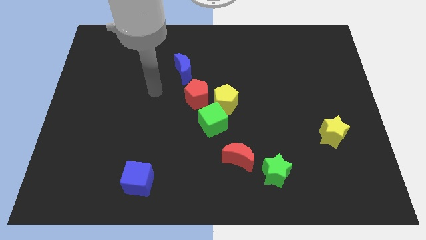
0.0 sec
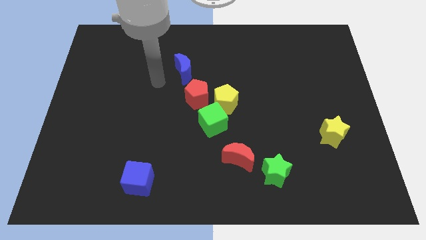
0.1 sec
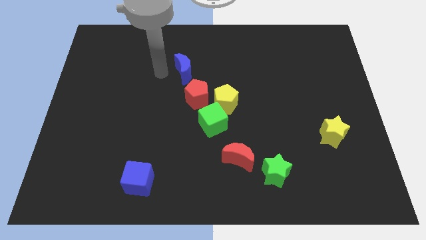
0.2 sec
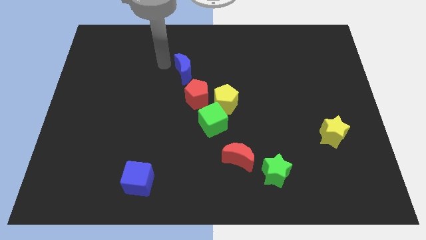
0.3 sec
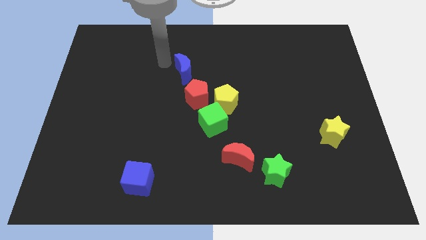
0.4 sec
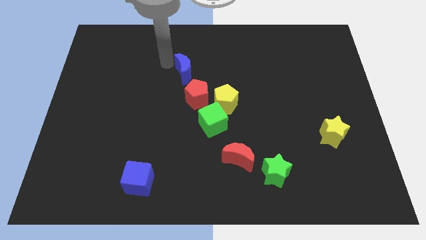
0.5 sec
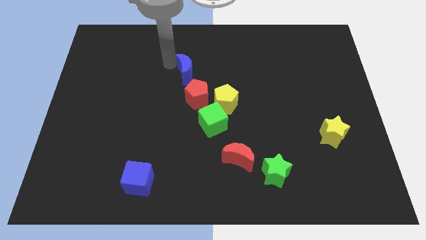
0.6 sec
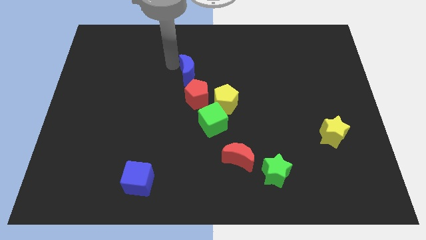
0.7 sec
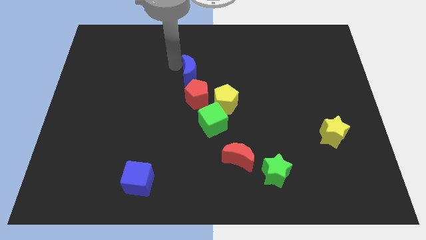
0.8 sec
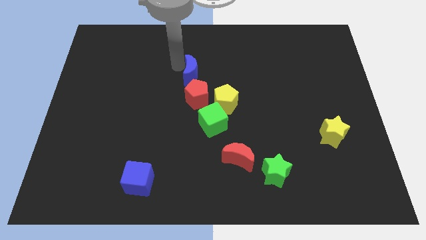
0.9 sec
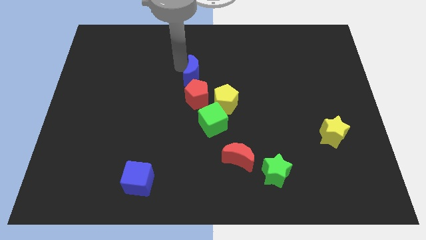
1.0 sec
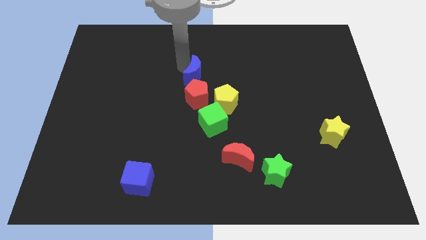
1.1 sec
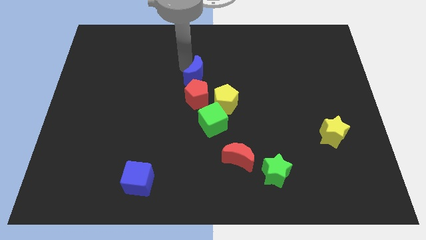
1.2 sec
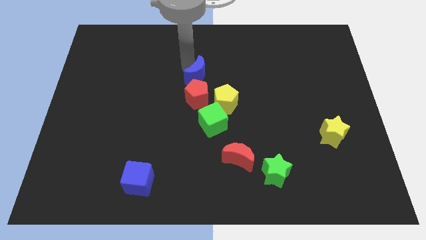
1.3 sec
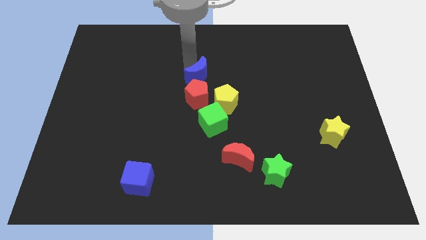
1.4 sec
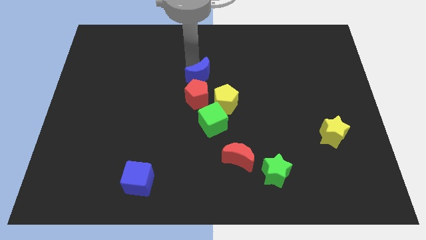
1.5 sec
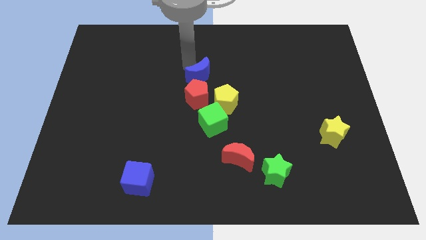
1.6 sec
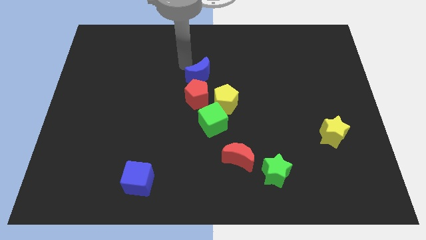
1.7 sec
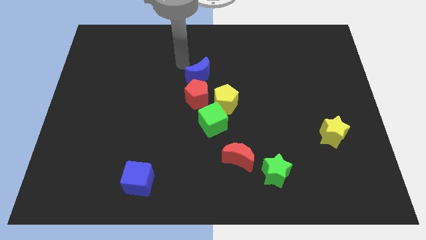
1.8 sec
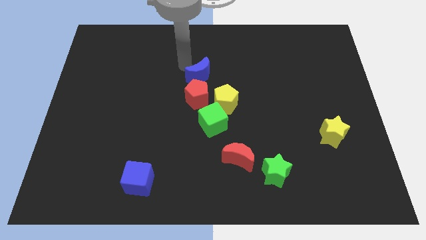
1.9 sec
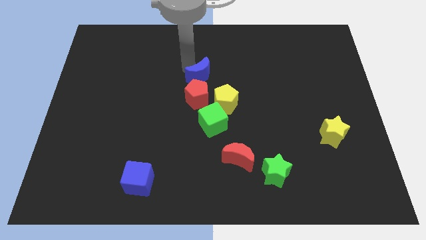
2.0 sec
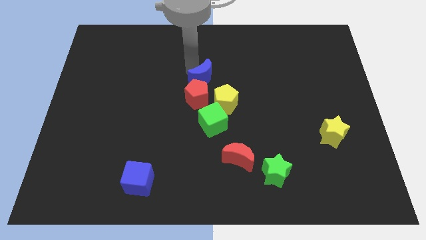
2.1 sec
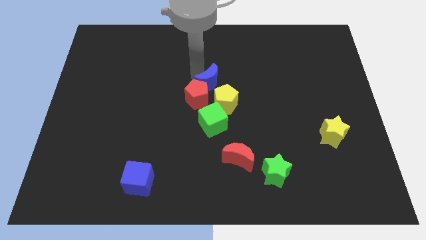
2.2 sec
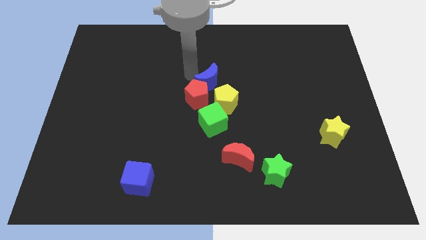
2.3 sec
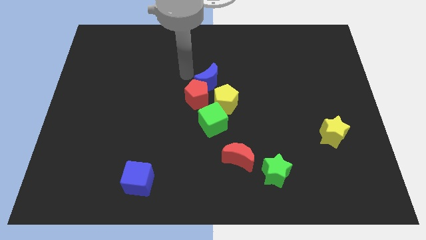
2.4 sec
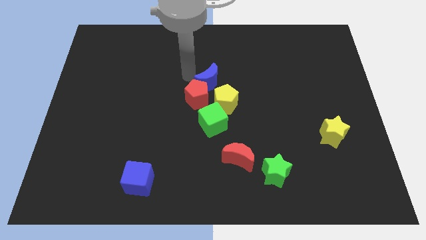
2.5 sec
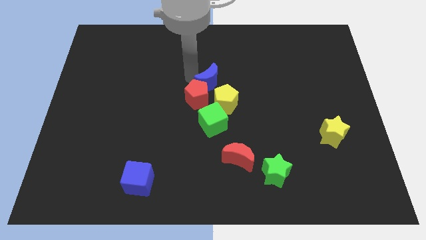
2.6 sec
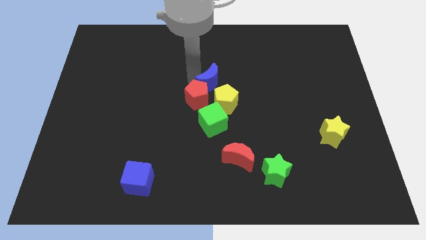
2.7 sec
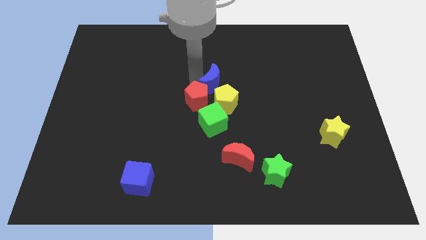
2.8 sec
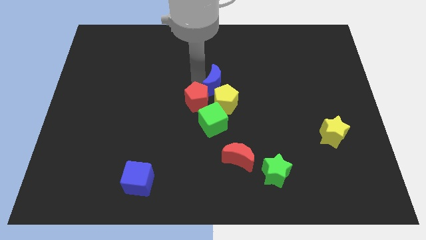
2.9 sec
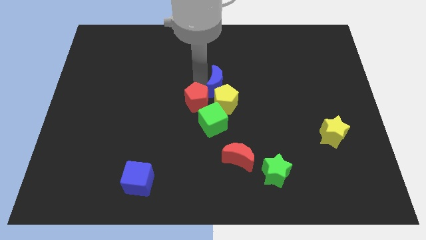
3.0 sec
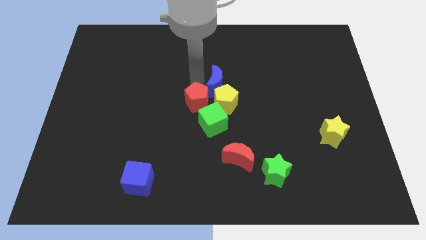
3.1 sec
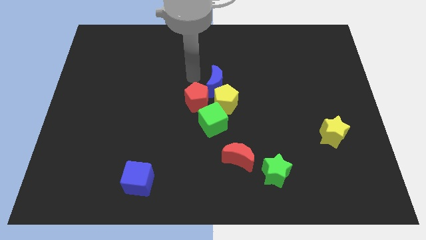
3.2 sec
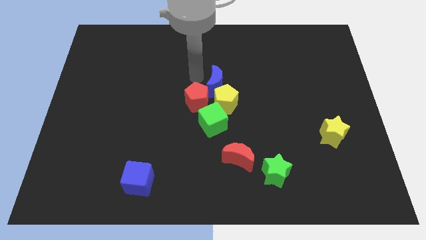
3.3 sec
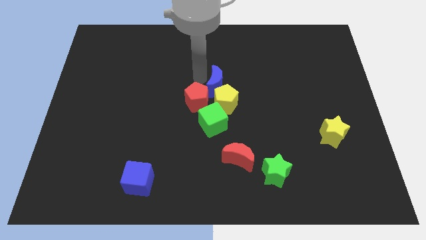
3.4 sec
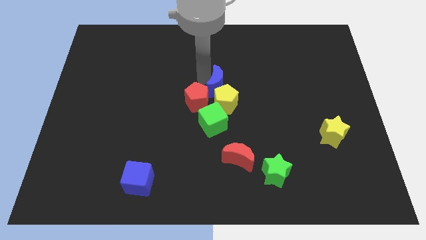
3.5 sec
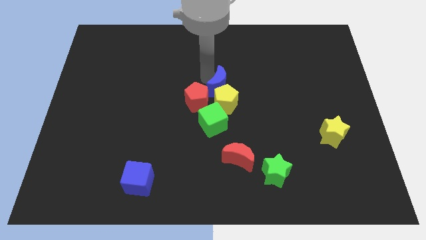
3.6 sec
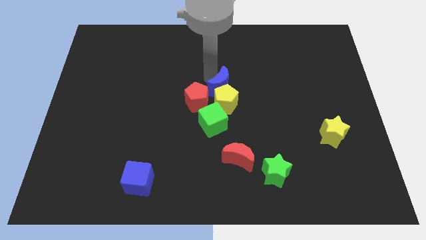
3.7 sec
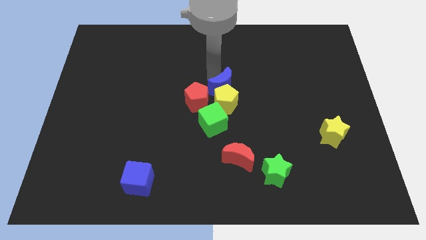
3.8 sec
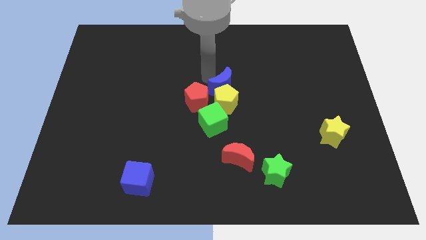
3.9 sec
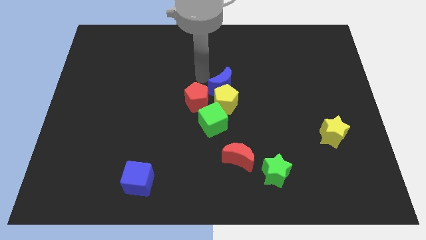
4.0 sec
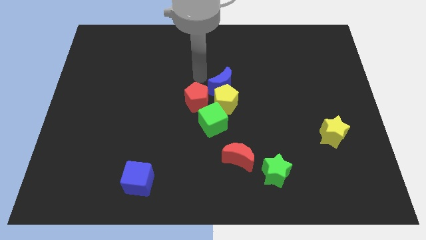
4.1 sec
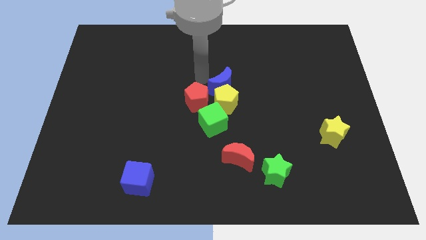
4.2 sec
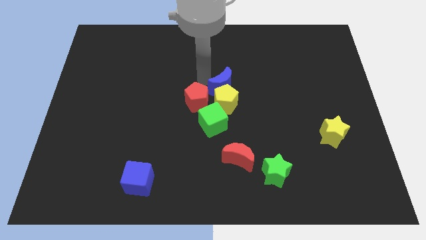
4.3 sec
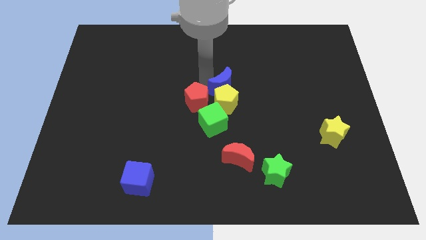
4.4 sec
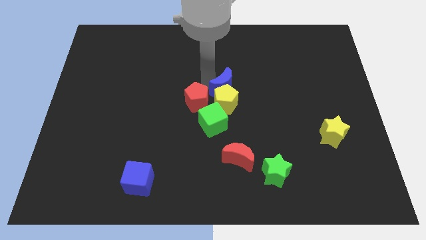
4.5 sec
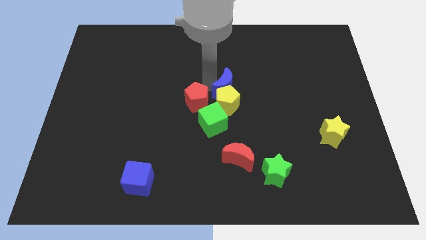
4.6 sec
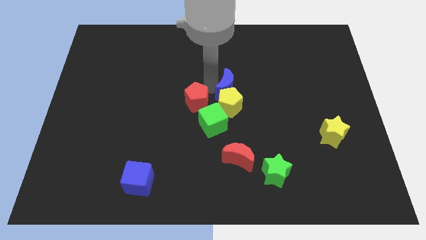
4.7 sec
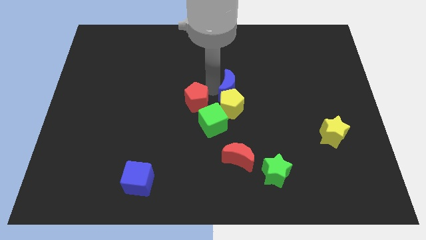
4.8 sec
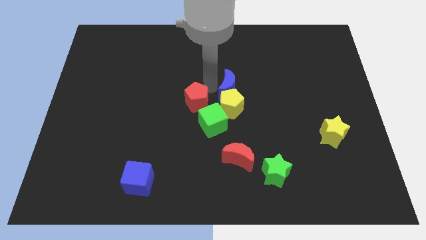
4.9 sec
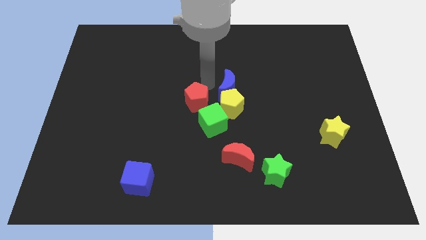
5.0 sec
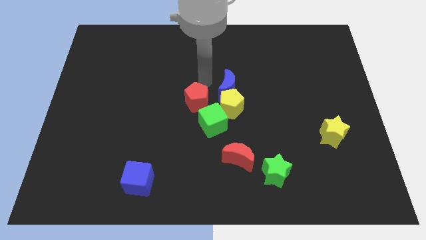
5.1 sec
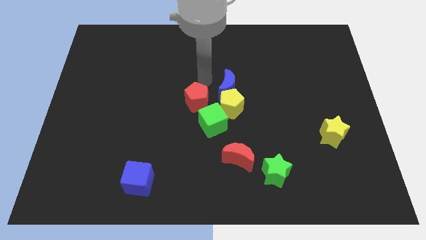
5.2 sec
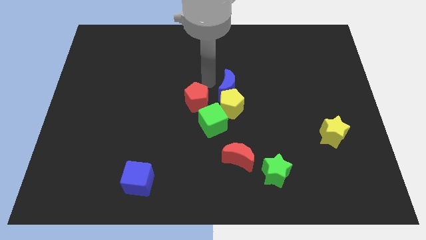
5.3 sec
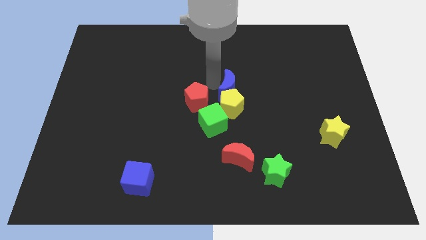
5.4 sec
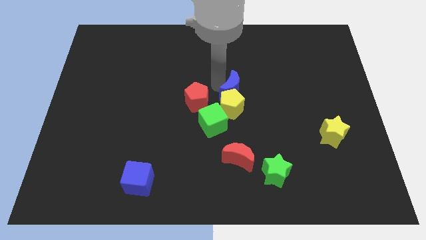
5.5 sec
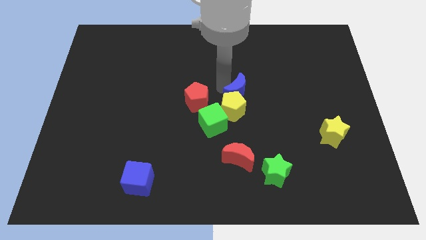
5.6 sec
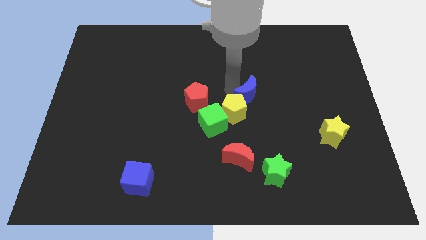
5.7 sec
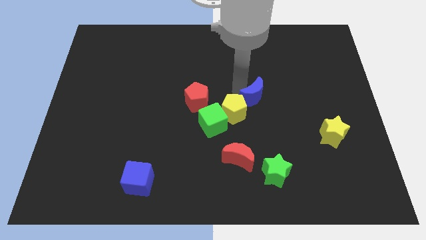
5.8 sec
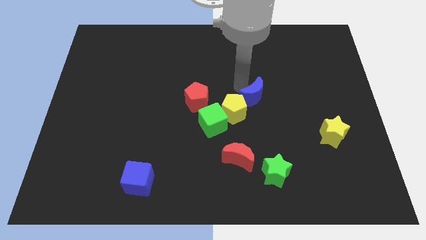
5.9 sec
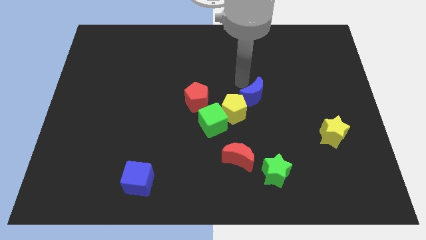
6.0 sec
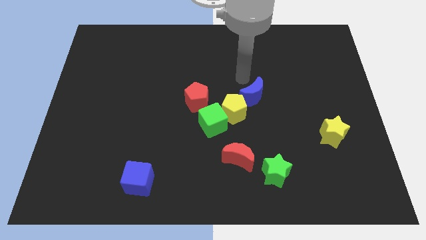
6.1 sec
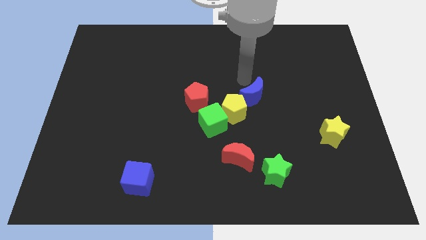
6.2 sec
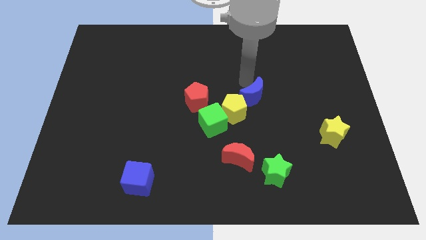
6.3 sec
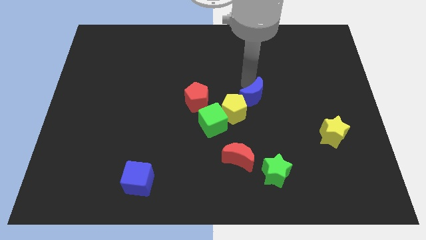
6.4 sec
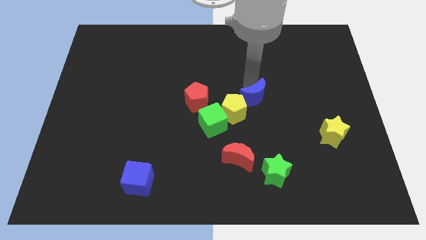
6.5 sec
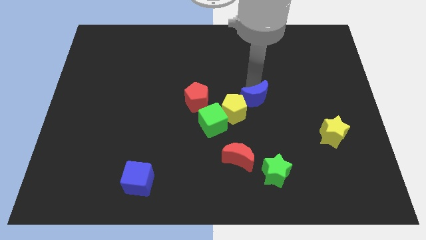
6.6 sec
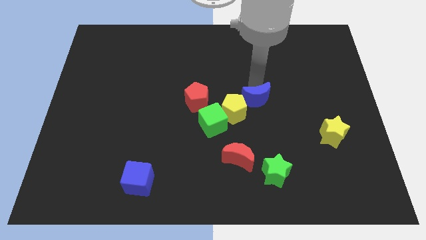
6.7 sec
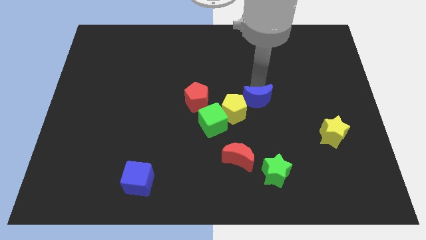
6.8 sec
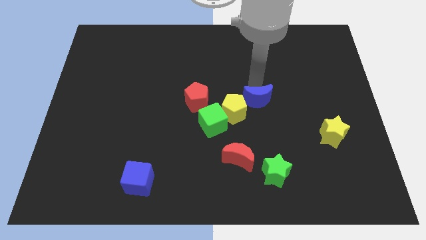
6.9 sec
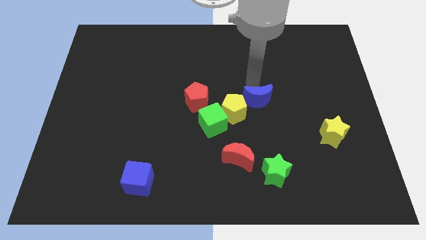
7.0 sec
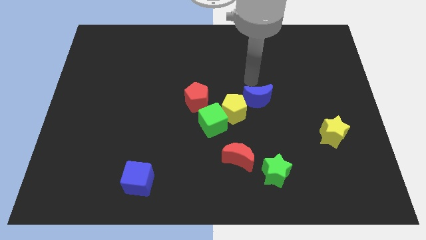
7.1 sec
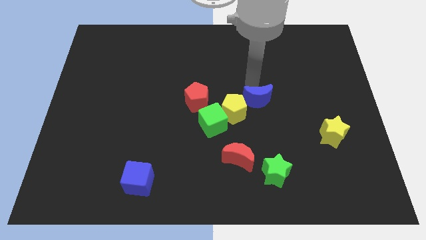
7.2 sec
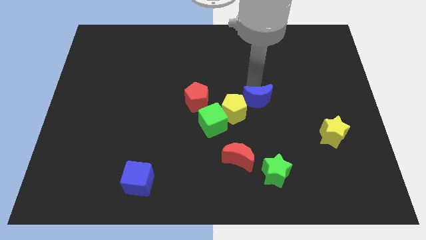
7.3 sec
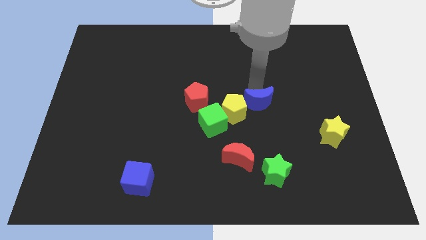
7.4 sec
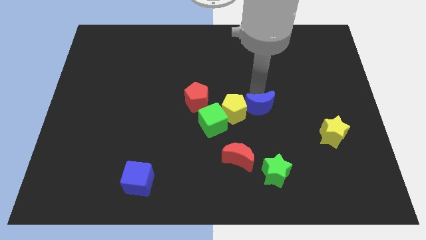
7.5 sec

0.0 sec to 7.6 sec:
slide the blue moon downwards and right diagonally

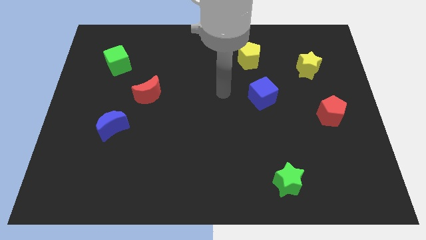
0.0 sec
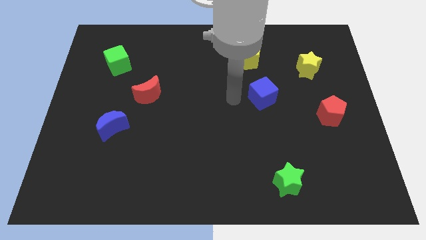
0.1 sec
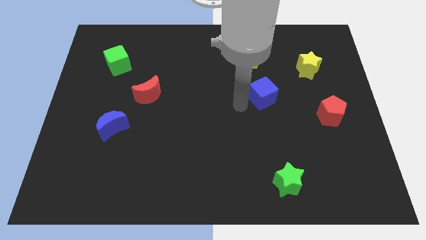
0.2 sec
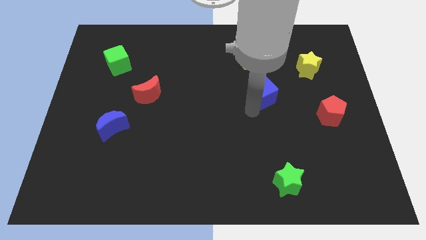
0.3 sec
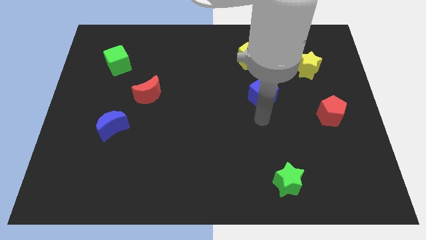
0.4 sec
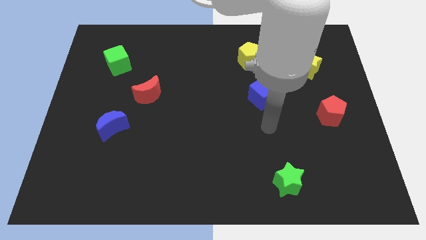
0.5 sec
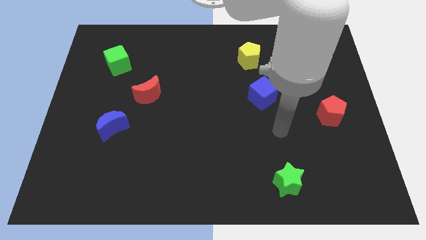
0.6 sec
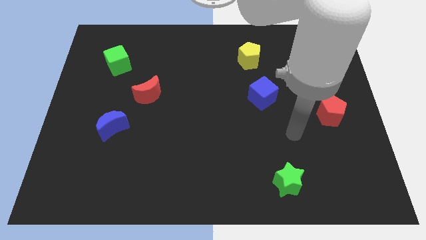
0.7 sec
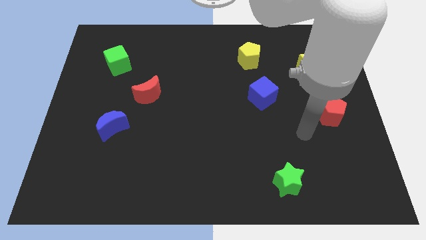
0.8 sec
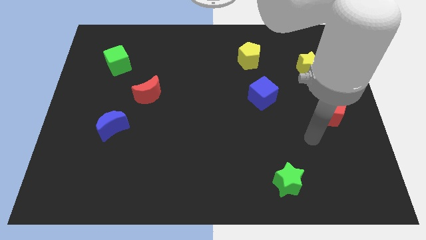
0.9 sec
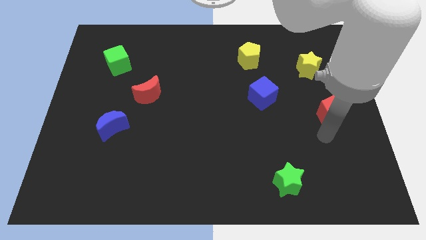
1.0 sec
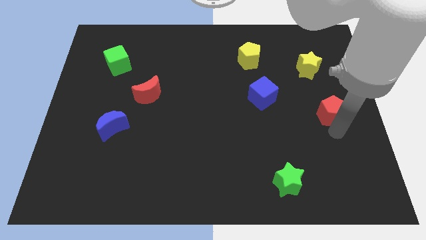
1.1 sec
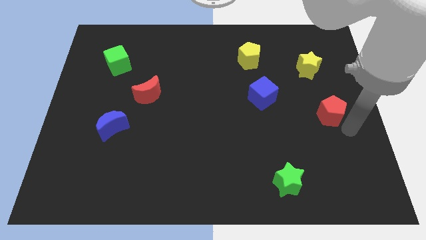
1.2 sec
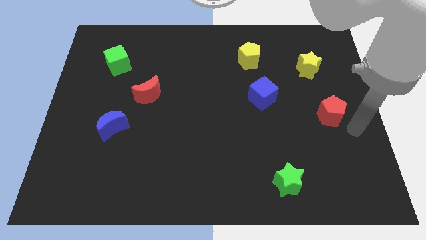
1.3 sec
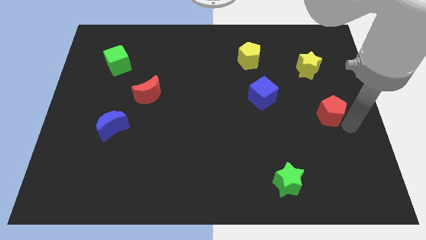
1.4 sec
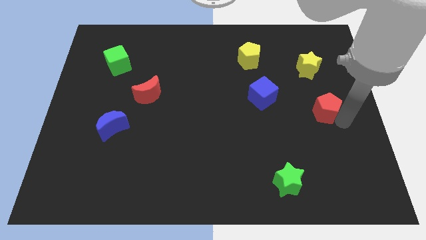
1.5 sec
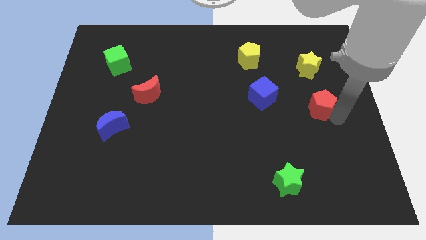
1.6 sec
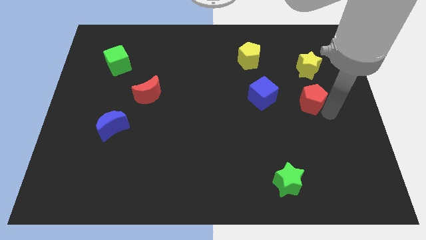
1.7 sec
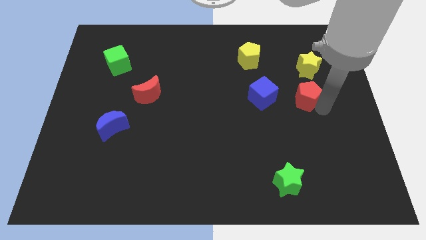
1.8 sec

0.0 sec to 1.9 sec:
push the red pentagon slightly up and to the left diagonally
